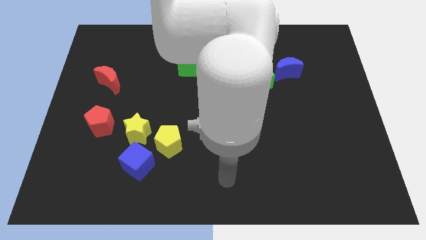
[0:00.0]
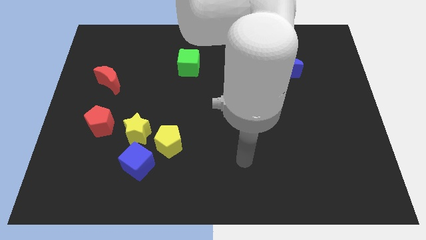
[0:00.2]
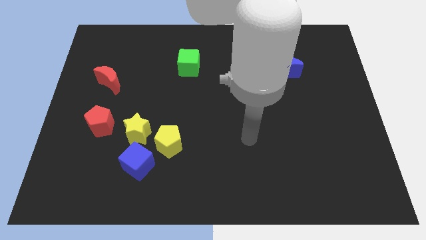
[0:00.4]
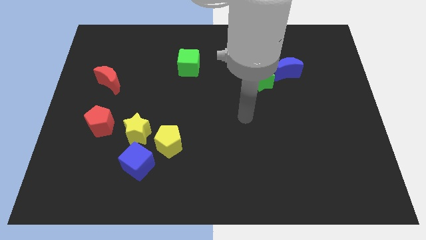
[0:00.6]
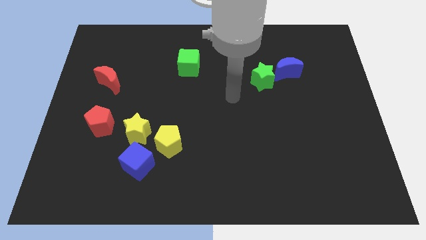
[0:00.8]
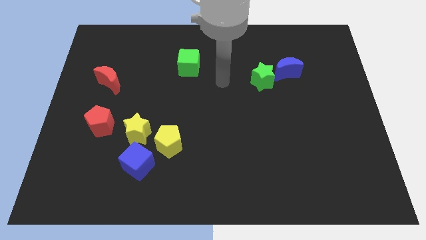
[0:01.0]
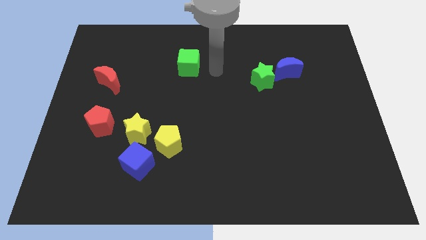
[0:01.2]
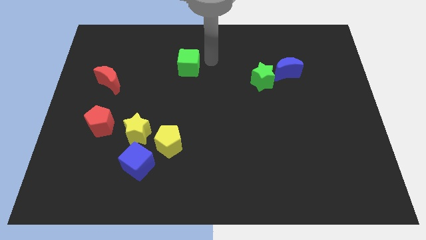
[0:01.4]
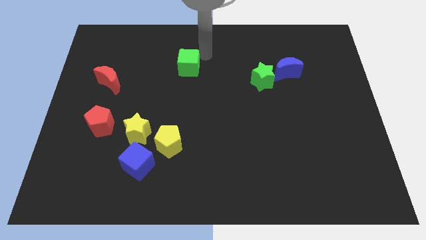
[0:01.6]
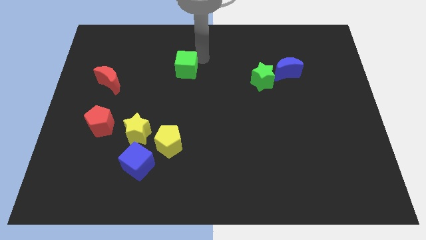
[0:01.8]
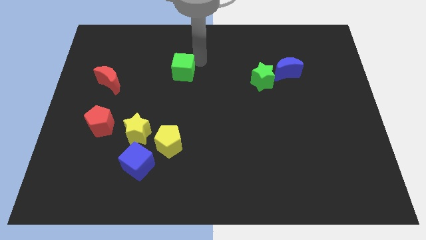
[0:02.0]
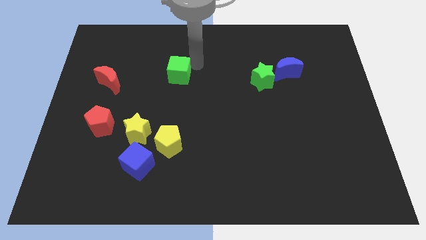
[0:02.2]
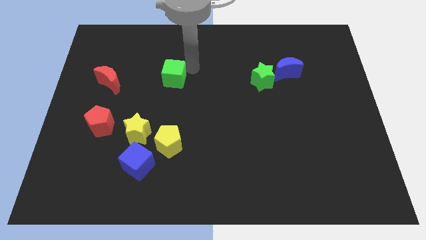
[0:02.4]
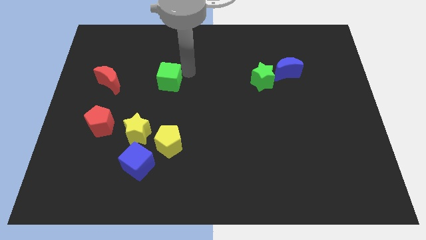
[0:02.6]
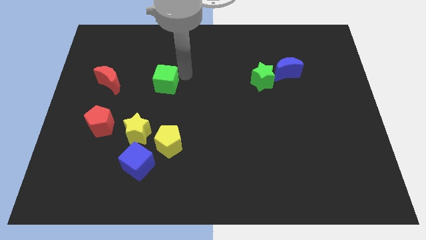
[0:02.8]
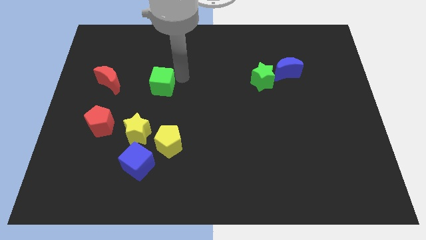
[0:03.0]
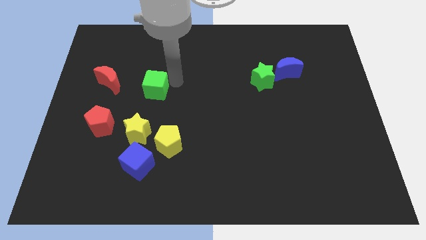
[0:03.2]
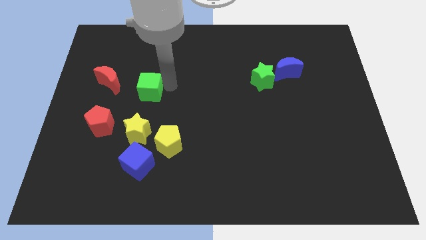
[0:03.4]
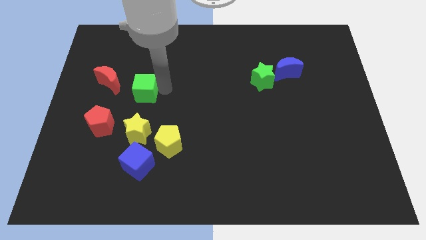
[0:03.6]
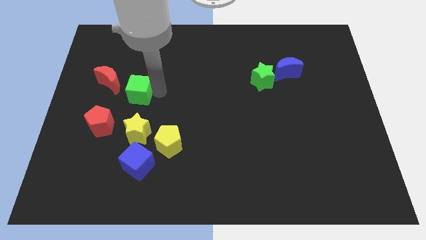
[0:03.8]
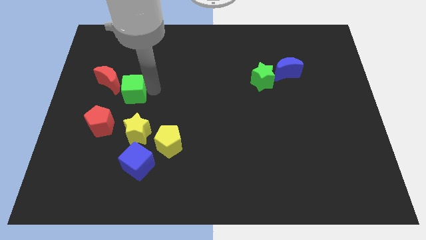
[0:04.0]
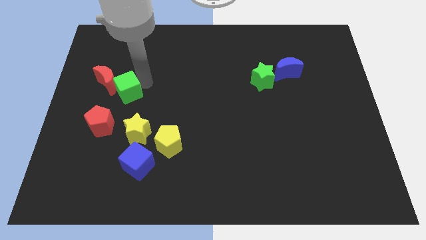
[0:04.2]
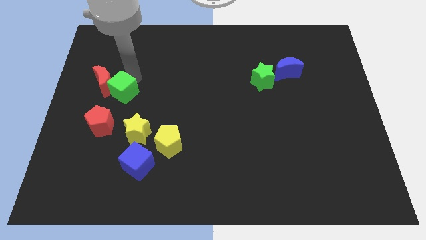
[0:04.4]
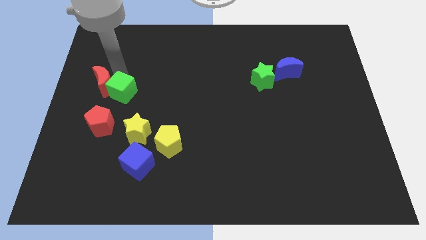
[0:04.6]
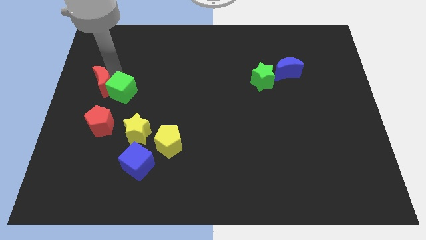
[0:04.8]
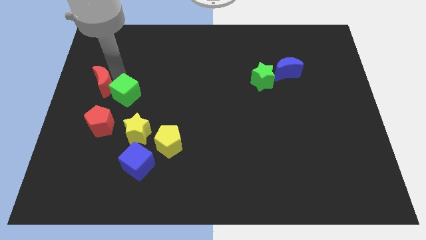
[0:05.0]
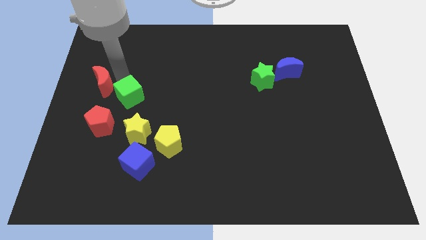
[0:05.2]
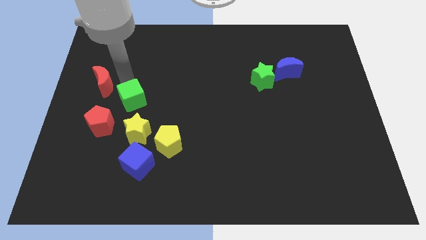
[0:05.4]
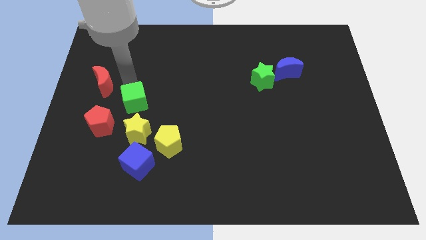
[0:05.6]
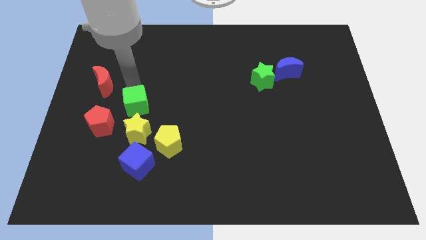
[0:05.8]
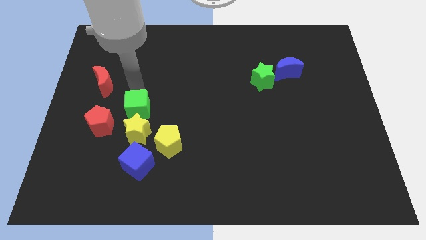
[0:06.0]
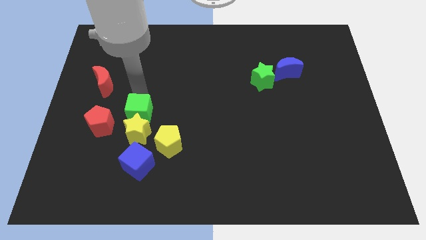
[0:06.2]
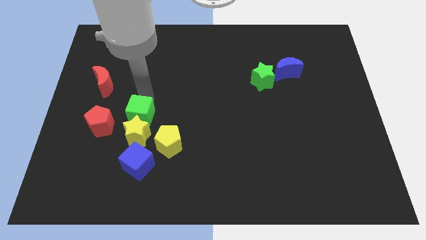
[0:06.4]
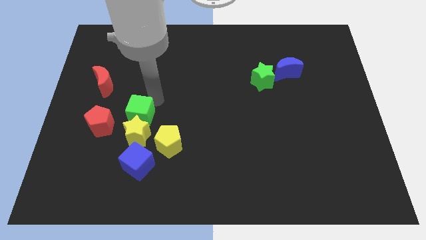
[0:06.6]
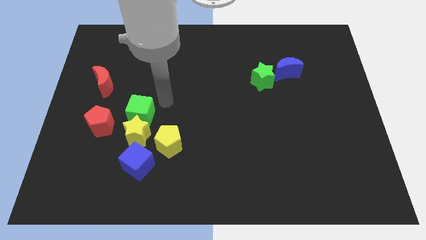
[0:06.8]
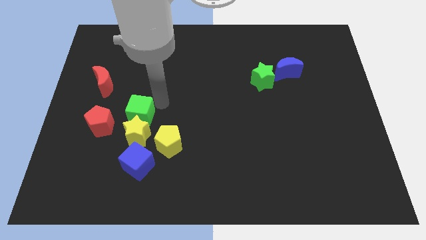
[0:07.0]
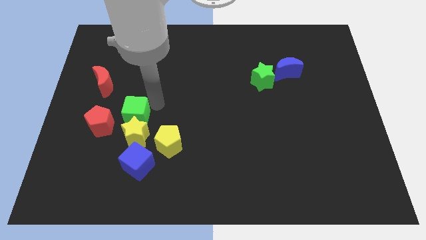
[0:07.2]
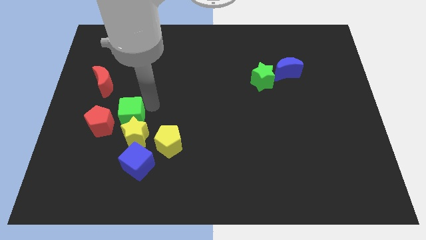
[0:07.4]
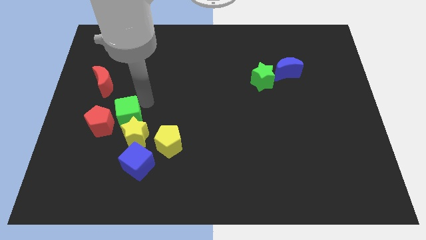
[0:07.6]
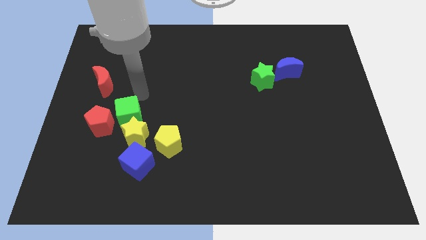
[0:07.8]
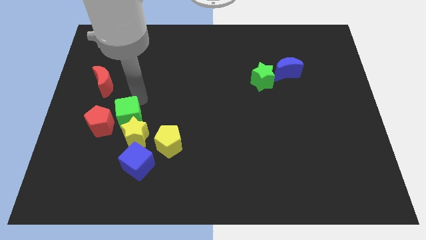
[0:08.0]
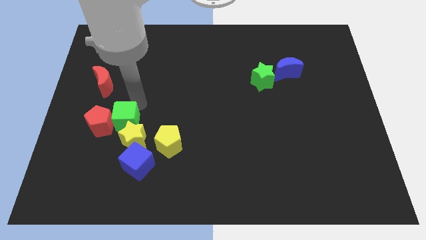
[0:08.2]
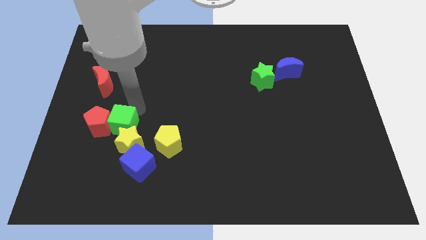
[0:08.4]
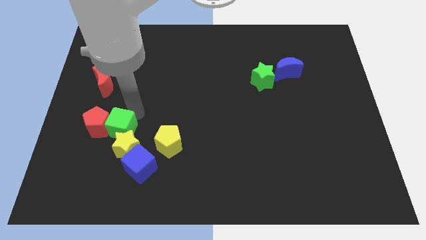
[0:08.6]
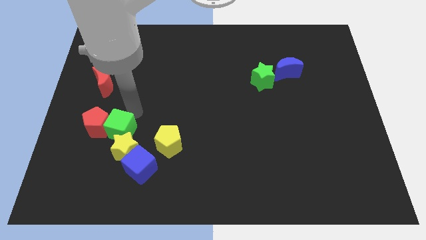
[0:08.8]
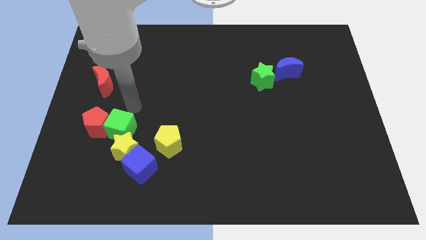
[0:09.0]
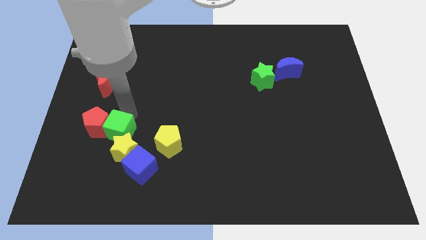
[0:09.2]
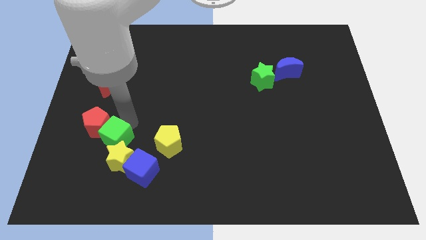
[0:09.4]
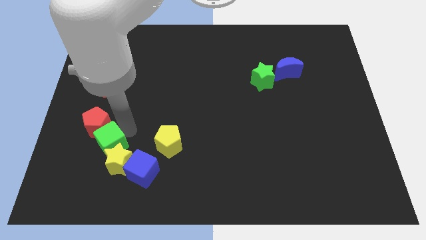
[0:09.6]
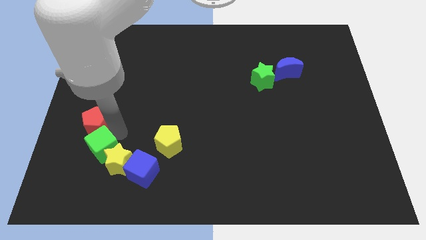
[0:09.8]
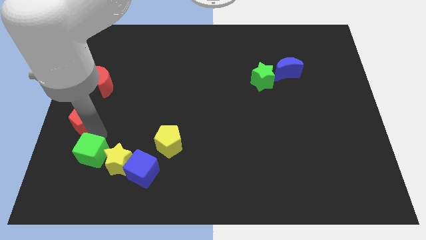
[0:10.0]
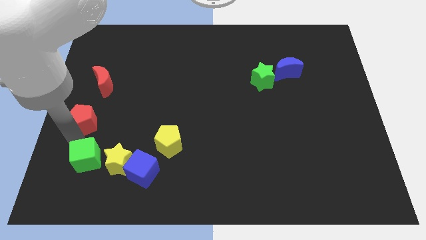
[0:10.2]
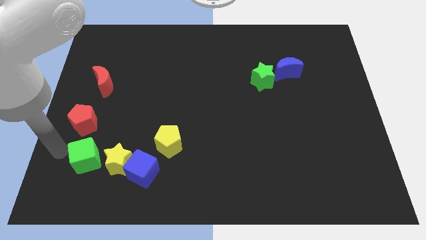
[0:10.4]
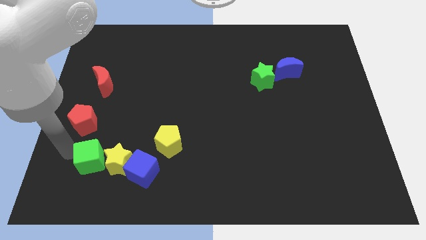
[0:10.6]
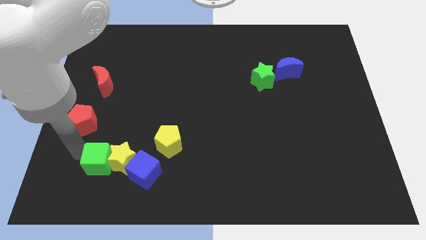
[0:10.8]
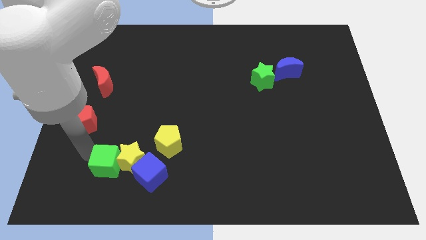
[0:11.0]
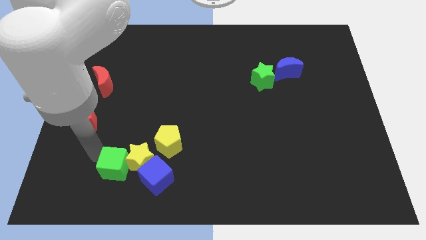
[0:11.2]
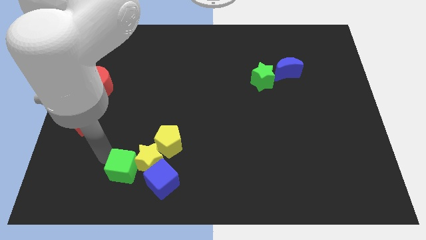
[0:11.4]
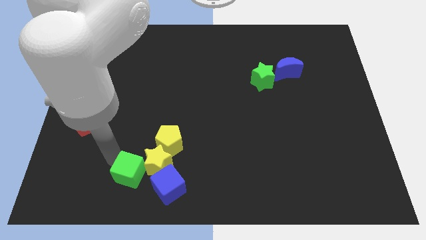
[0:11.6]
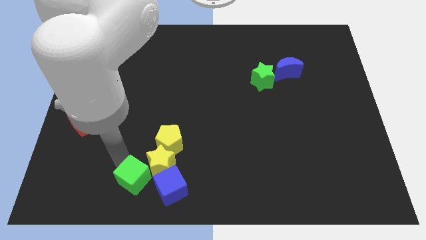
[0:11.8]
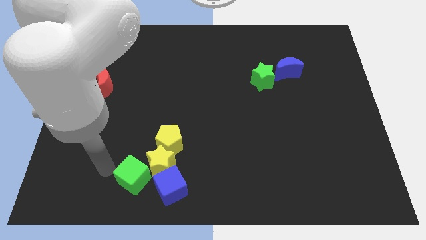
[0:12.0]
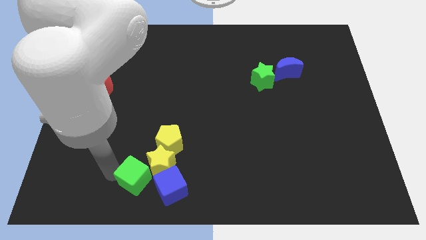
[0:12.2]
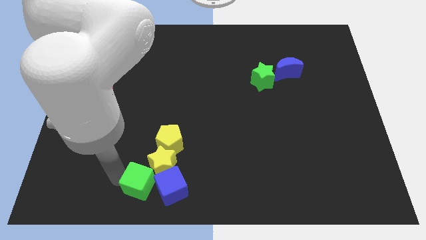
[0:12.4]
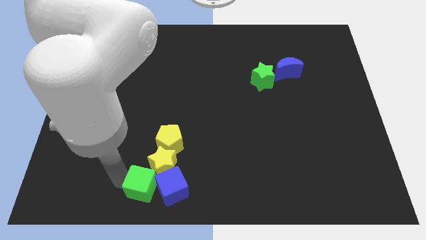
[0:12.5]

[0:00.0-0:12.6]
slide the green cube next to the blue cube
